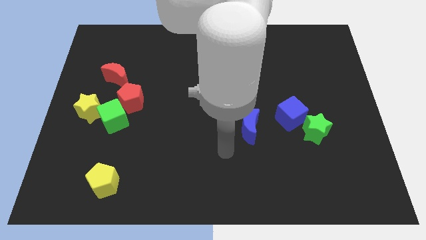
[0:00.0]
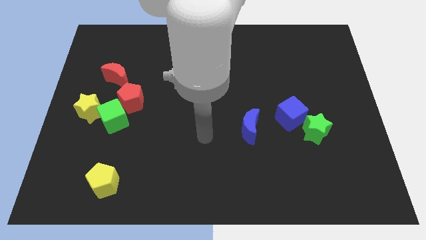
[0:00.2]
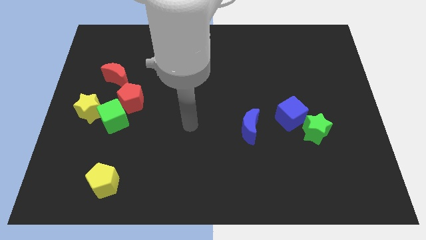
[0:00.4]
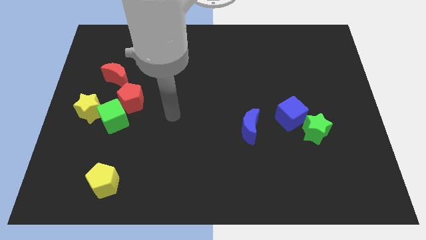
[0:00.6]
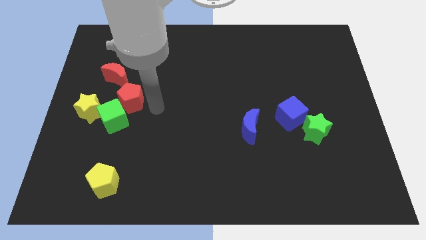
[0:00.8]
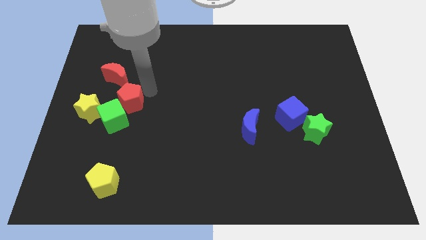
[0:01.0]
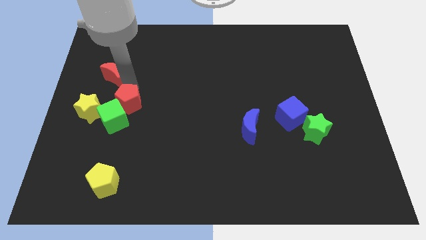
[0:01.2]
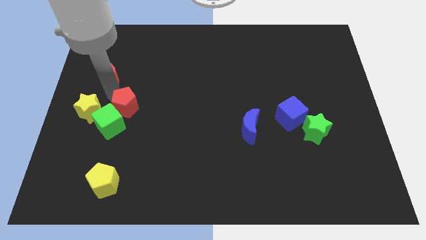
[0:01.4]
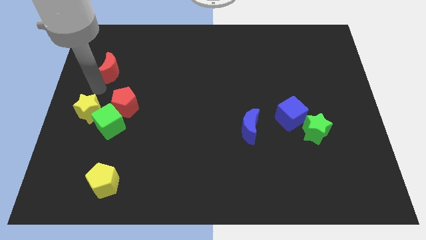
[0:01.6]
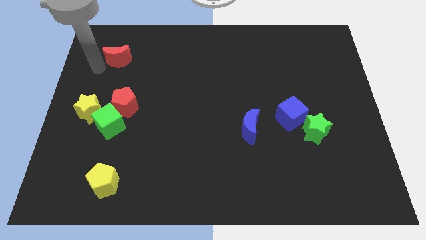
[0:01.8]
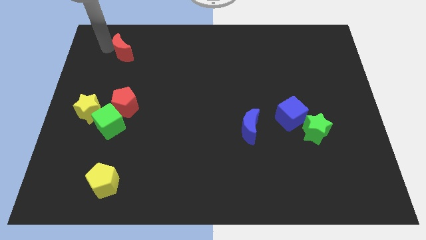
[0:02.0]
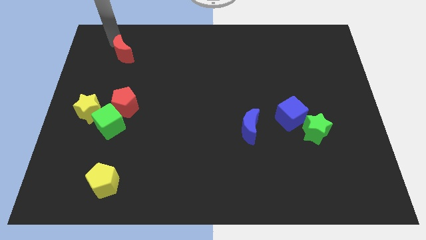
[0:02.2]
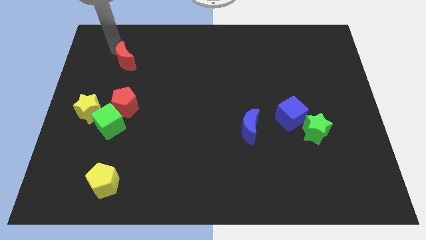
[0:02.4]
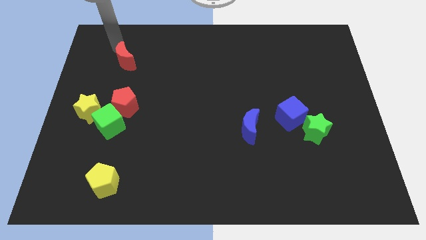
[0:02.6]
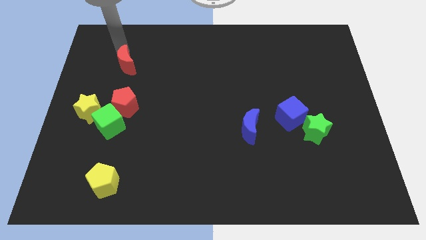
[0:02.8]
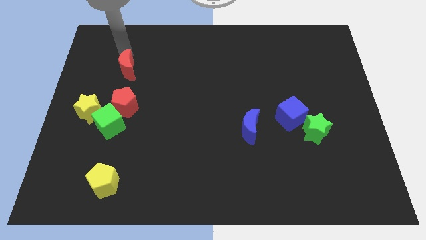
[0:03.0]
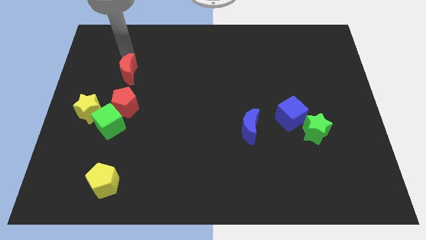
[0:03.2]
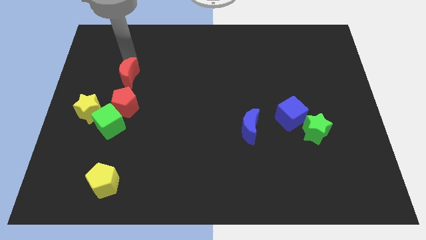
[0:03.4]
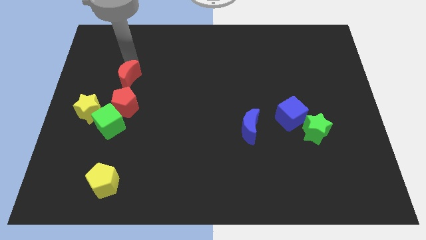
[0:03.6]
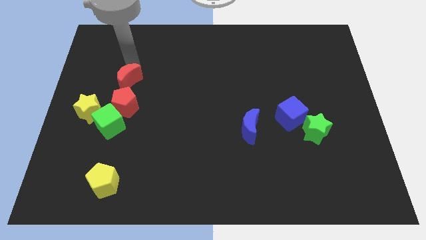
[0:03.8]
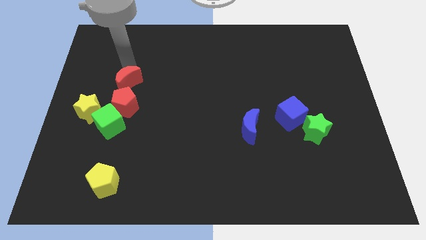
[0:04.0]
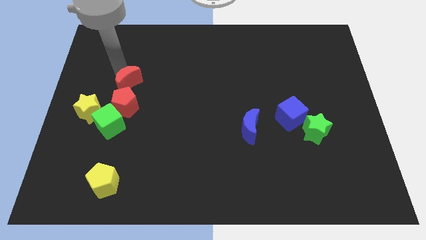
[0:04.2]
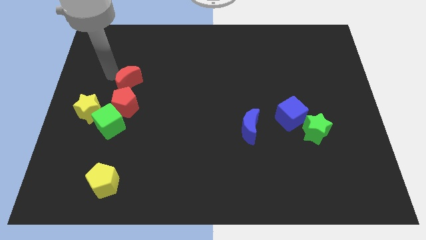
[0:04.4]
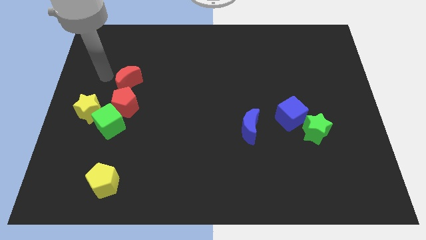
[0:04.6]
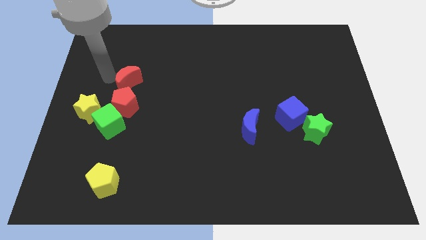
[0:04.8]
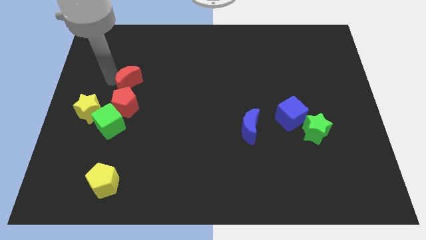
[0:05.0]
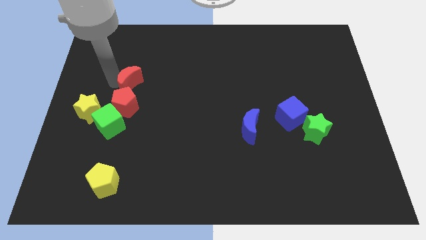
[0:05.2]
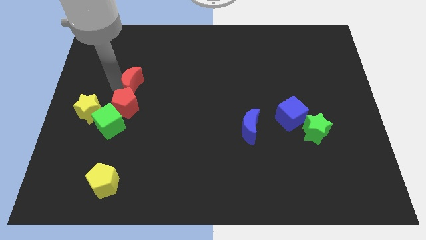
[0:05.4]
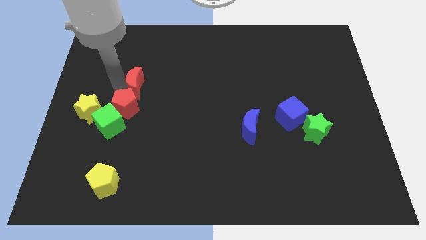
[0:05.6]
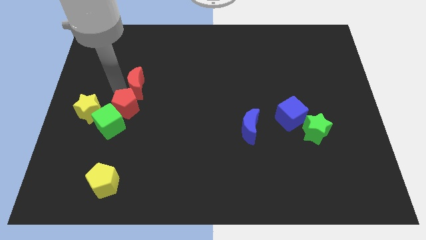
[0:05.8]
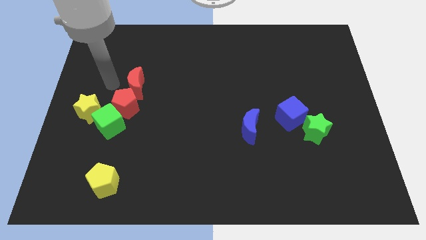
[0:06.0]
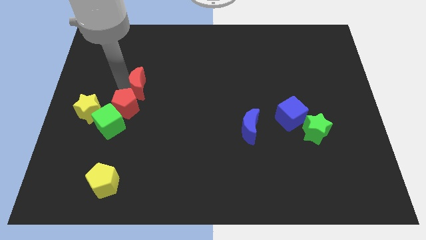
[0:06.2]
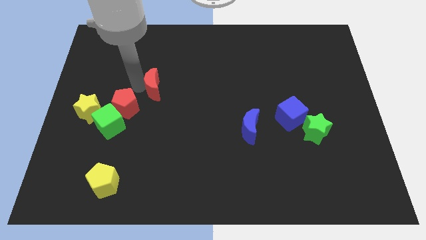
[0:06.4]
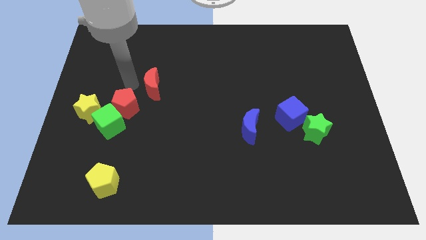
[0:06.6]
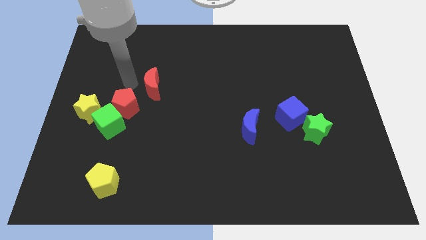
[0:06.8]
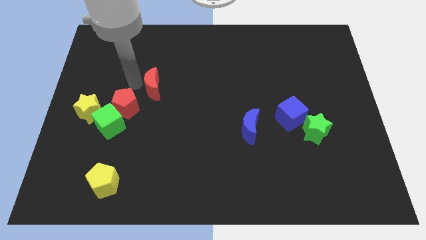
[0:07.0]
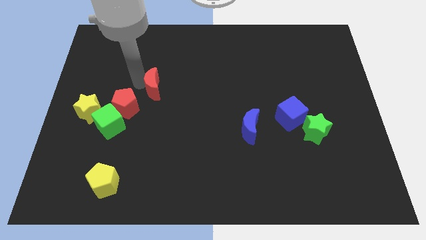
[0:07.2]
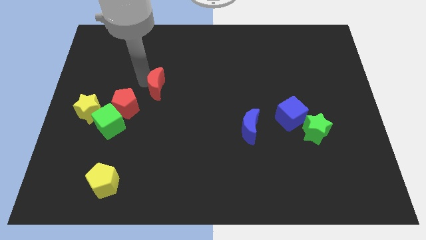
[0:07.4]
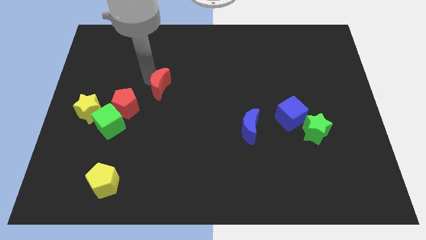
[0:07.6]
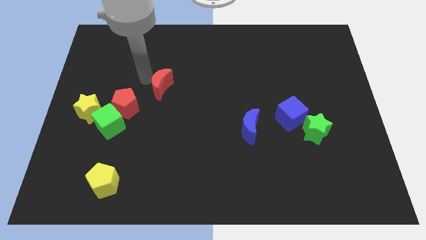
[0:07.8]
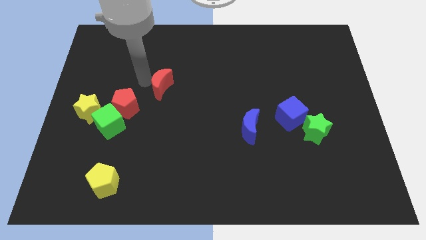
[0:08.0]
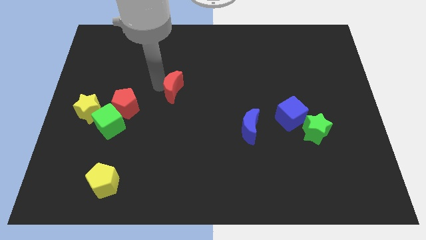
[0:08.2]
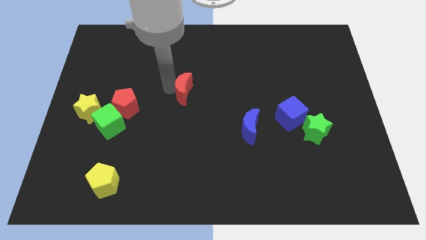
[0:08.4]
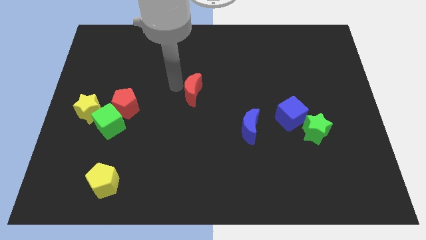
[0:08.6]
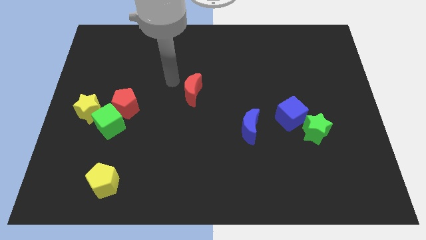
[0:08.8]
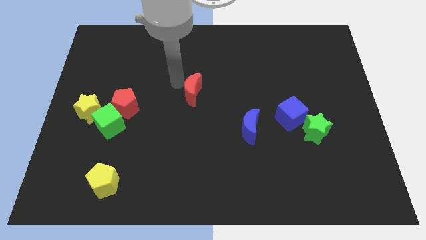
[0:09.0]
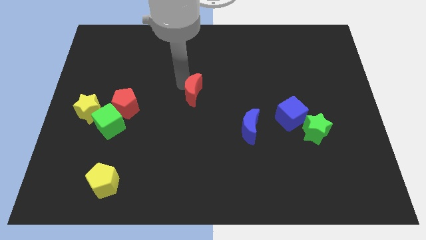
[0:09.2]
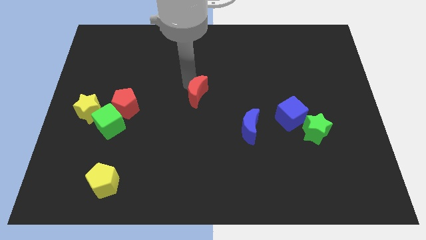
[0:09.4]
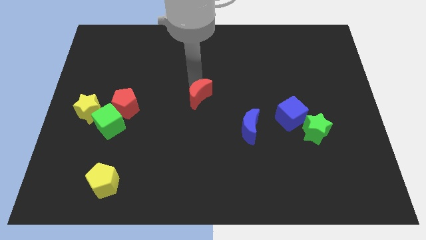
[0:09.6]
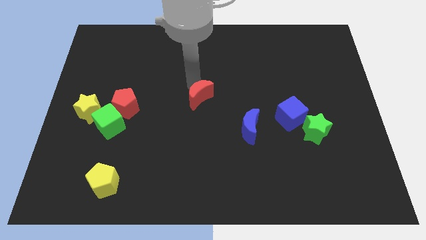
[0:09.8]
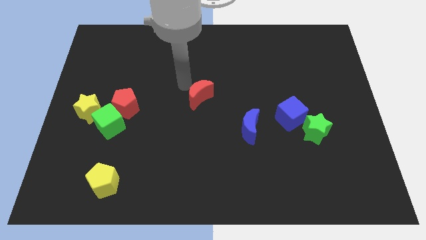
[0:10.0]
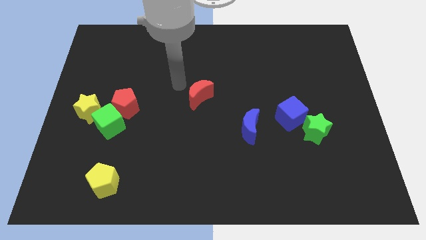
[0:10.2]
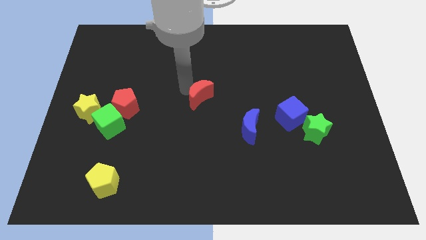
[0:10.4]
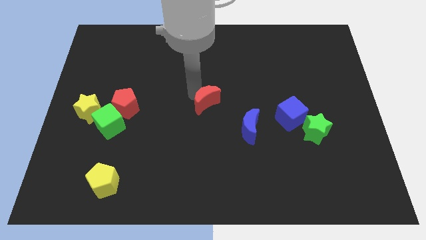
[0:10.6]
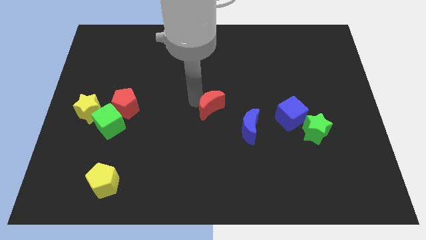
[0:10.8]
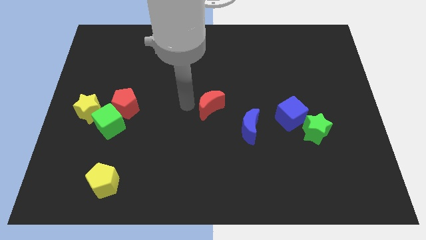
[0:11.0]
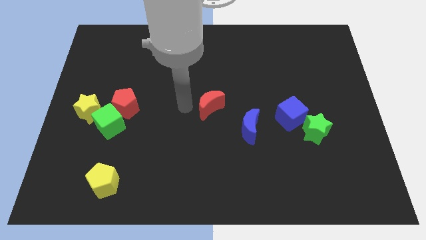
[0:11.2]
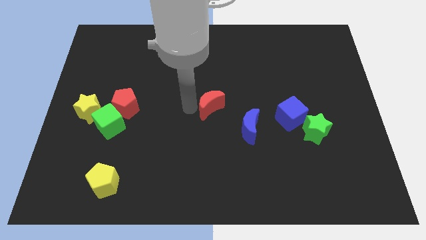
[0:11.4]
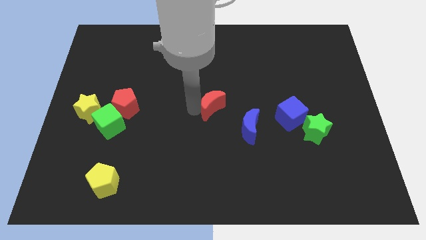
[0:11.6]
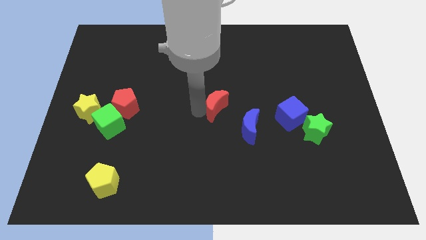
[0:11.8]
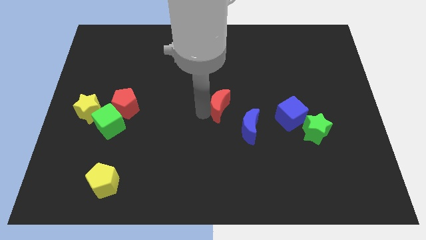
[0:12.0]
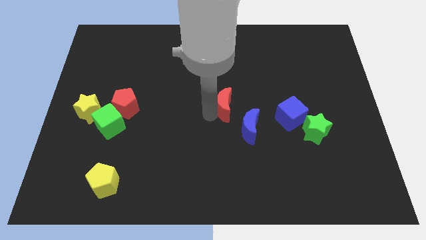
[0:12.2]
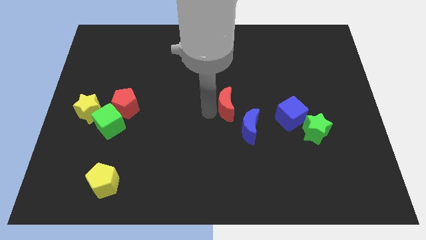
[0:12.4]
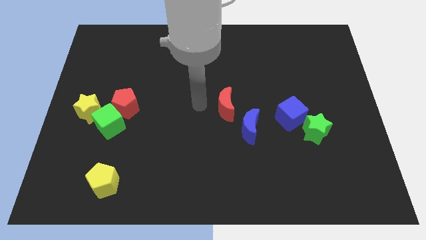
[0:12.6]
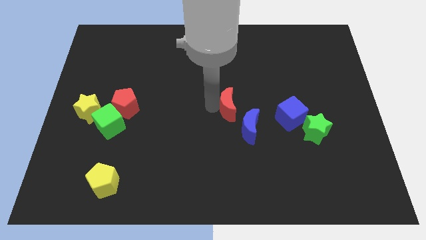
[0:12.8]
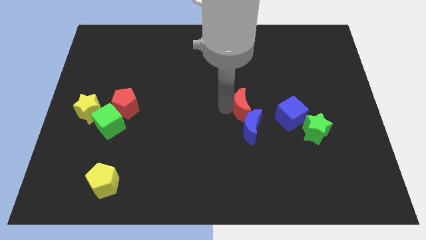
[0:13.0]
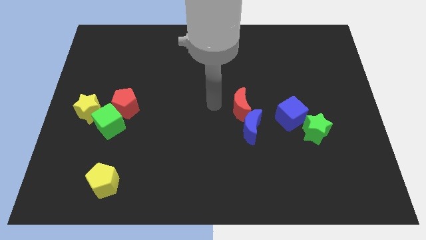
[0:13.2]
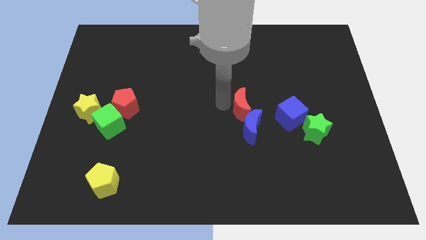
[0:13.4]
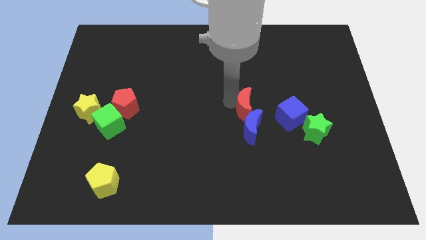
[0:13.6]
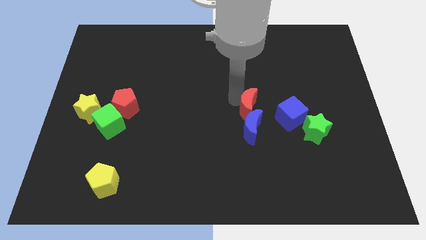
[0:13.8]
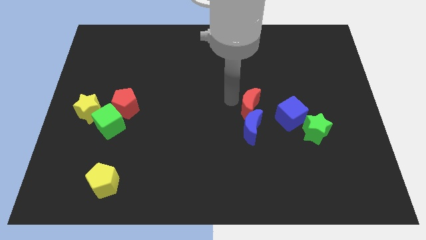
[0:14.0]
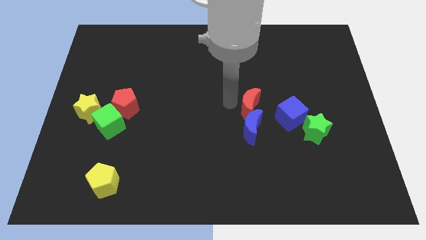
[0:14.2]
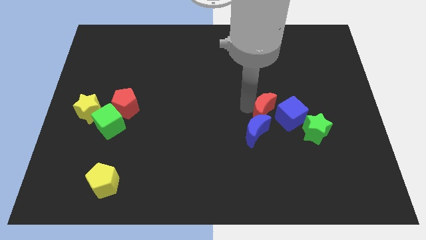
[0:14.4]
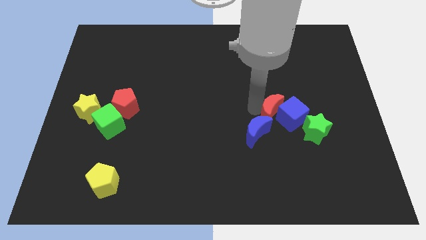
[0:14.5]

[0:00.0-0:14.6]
put the red moon towards the blue cube
